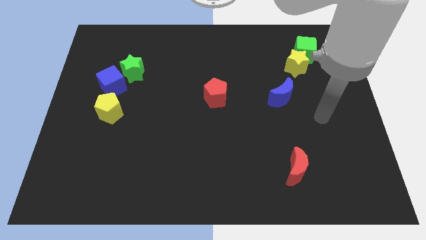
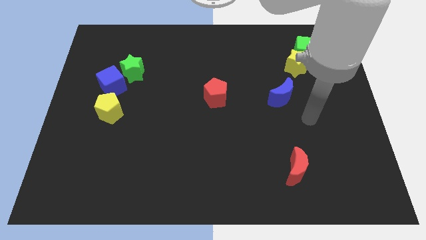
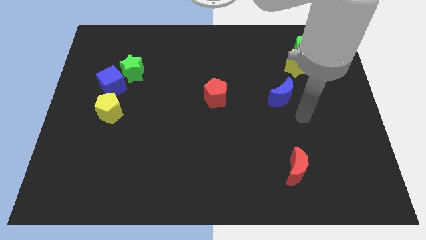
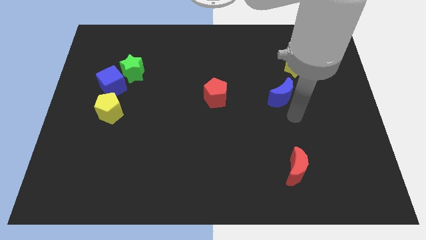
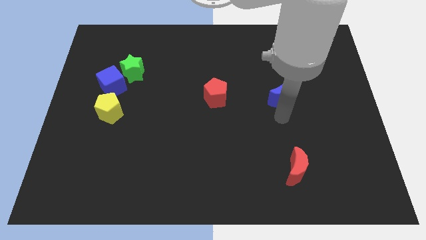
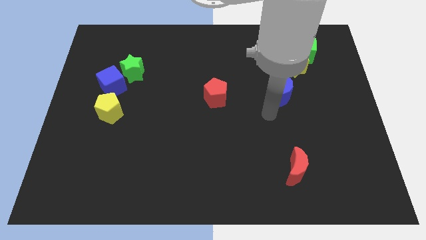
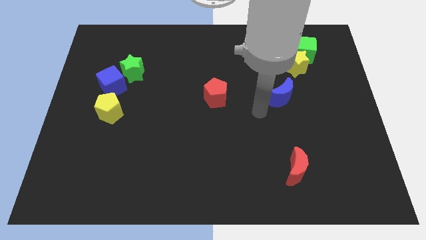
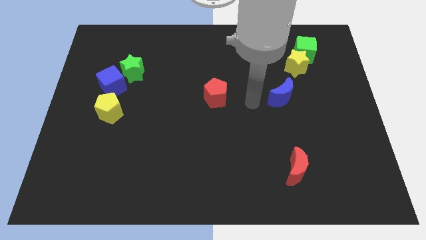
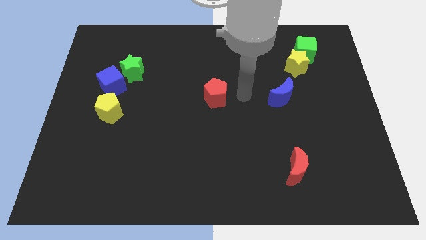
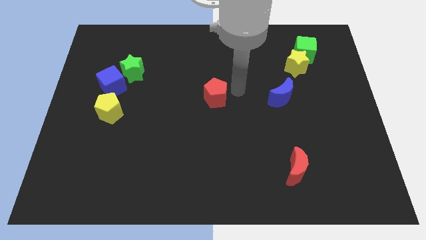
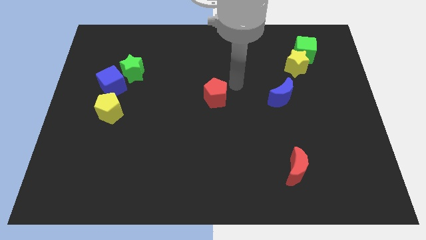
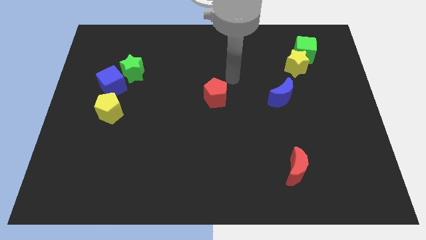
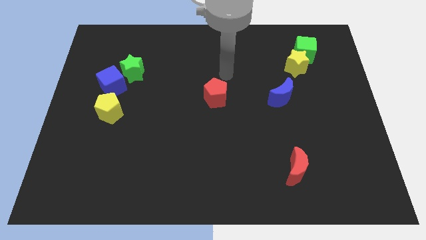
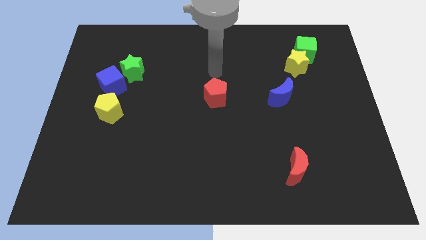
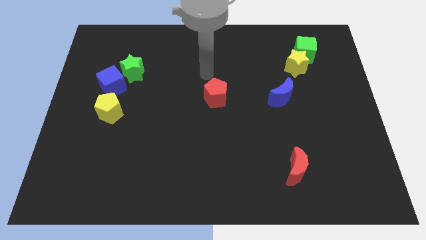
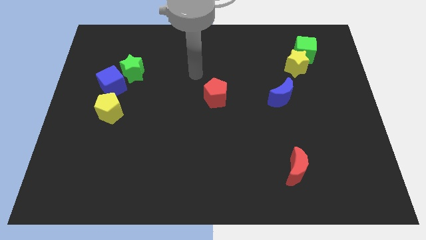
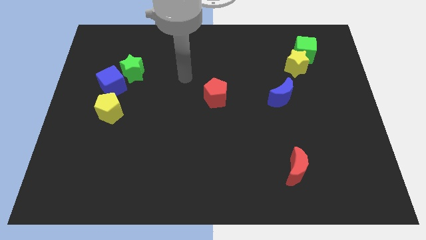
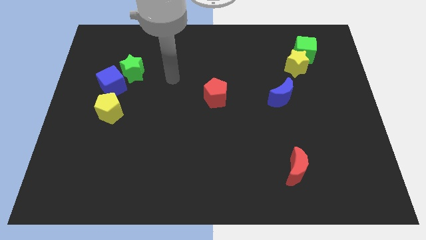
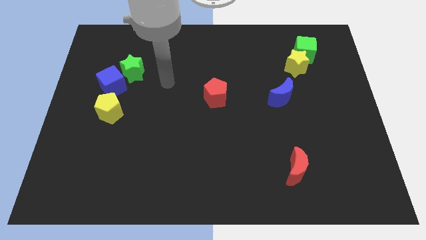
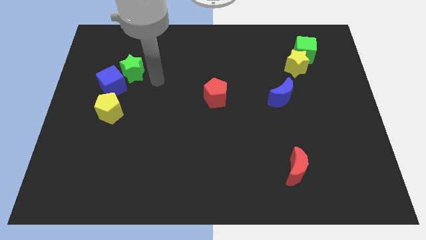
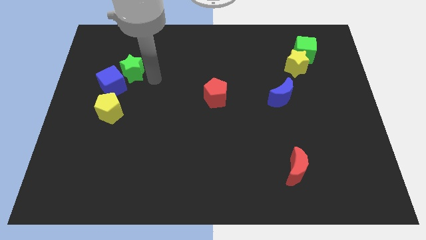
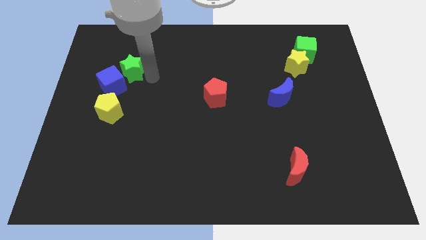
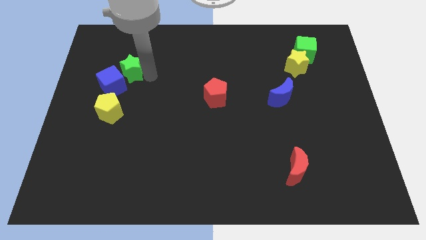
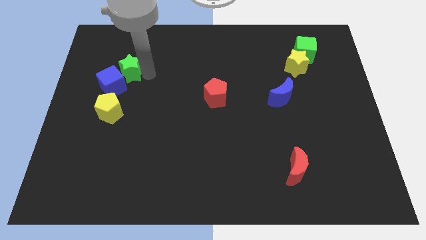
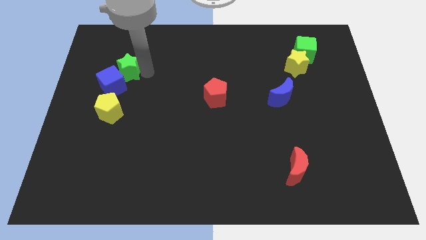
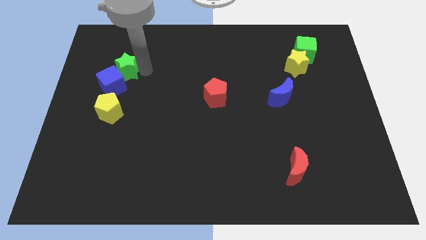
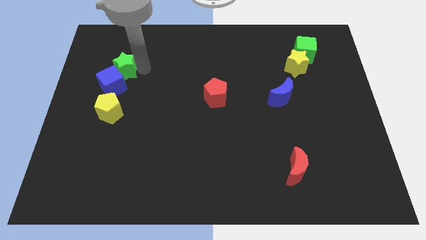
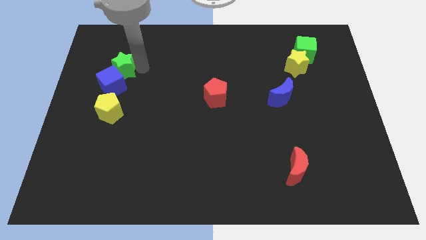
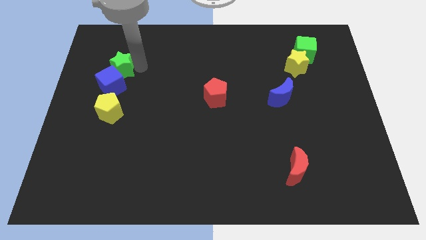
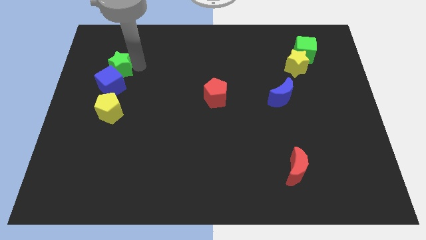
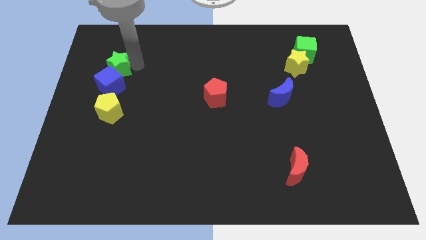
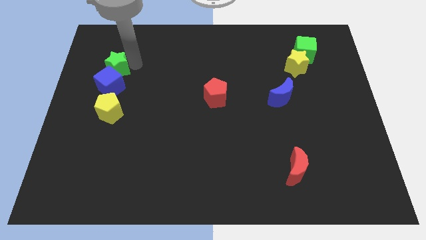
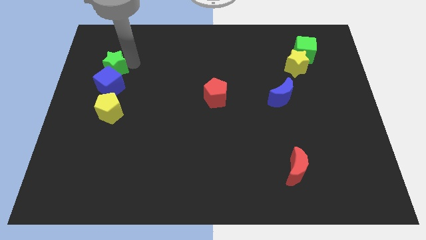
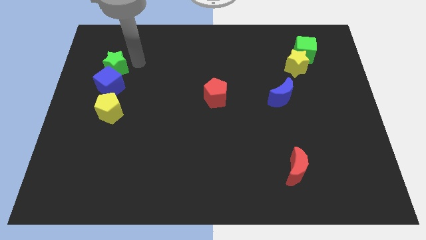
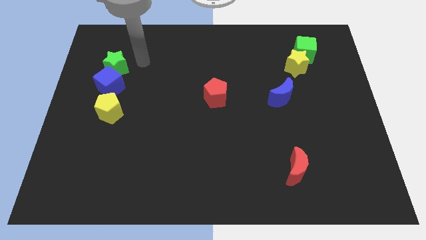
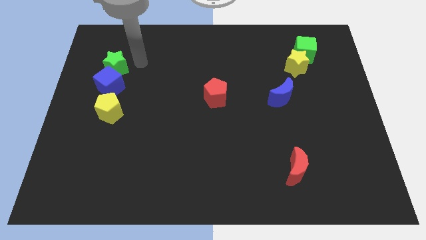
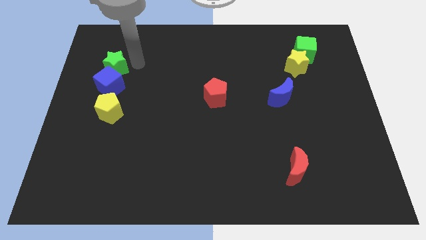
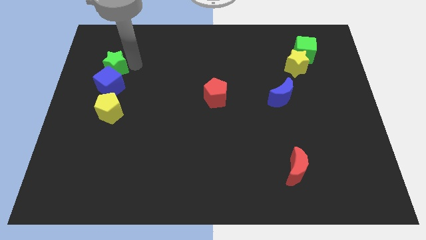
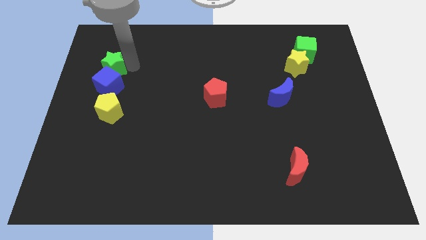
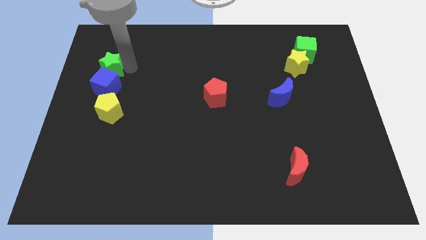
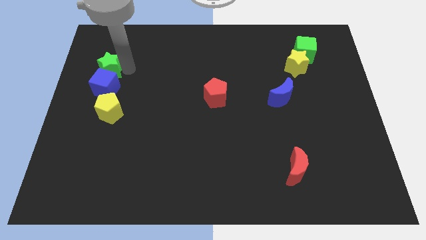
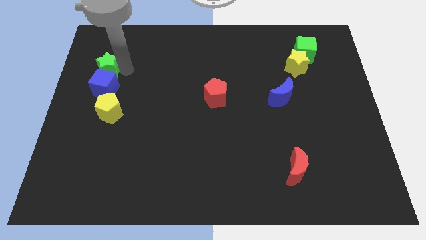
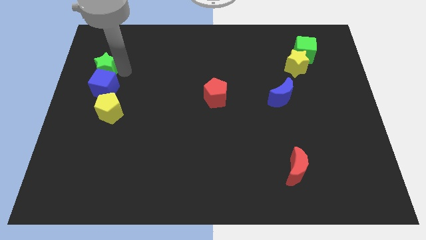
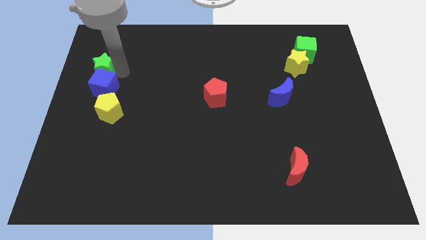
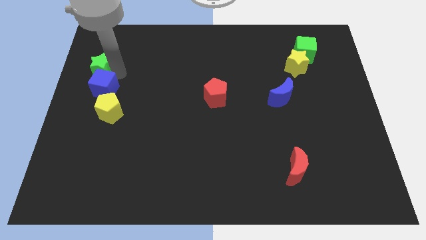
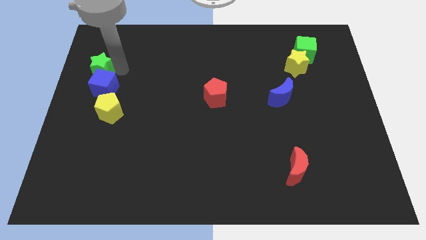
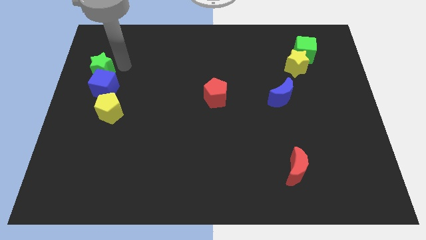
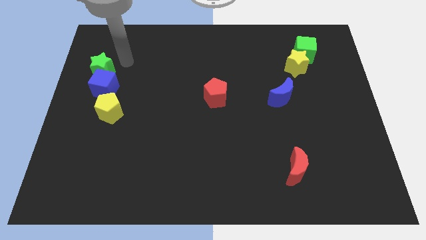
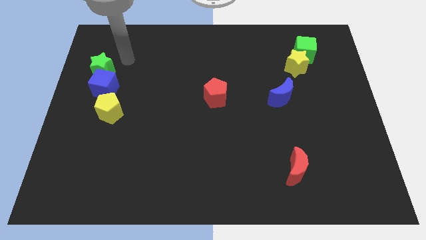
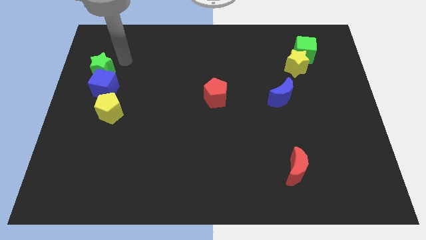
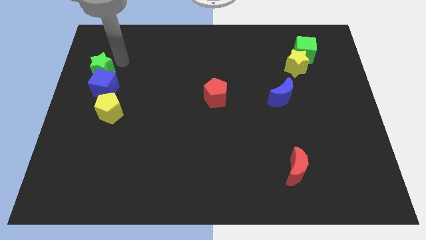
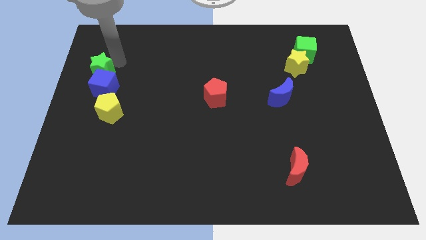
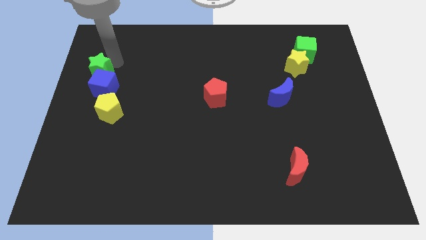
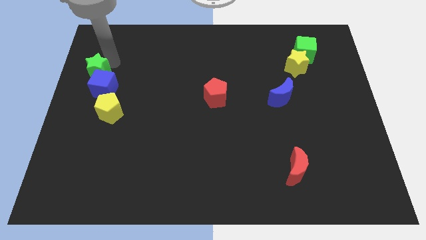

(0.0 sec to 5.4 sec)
move the green star to the left side
